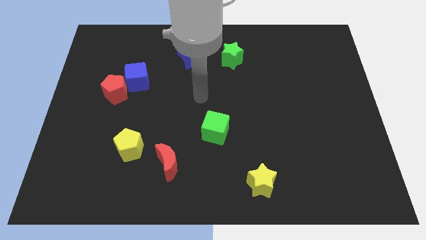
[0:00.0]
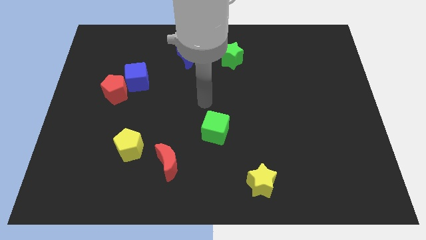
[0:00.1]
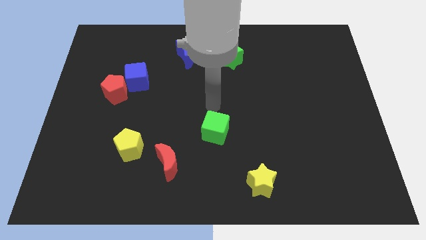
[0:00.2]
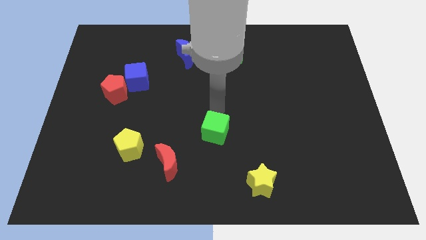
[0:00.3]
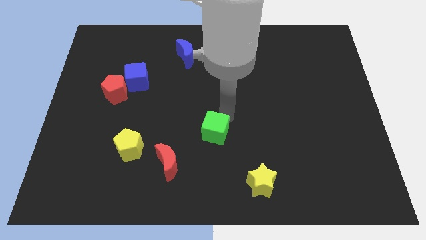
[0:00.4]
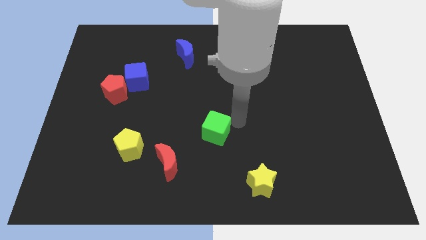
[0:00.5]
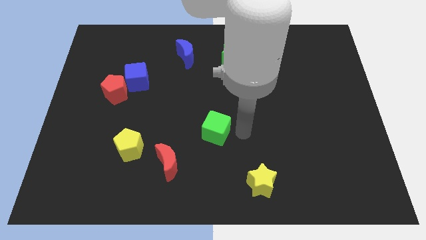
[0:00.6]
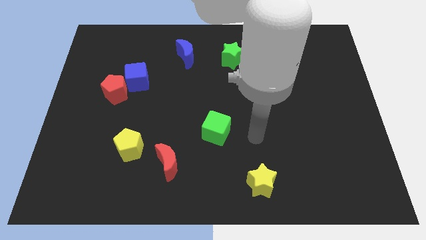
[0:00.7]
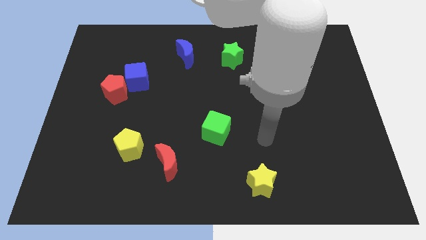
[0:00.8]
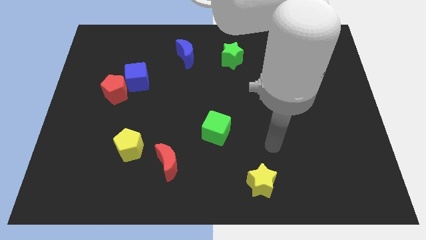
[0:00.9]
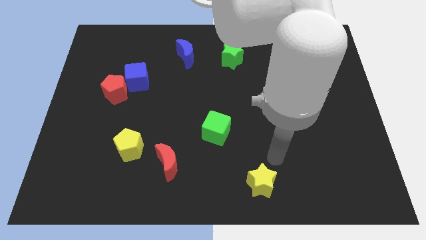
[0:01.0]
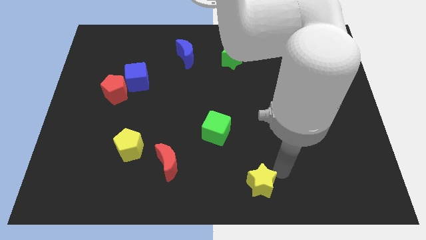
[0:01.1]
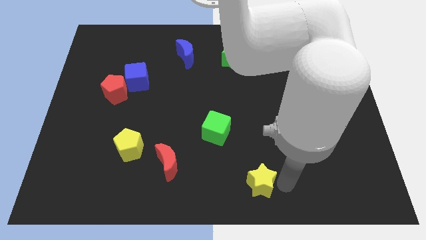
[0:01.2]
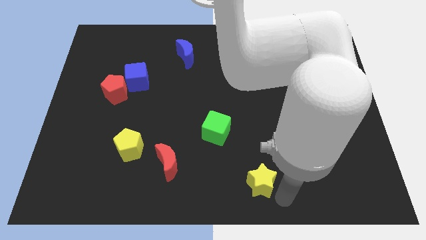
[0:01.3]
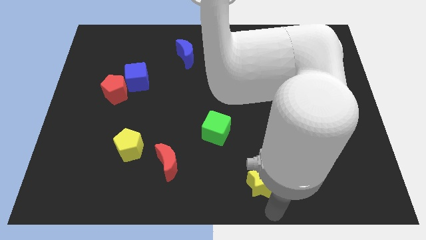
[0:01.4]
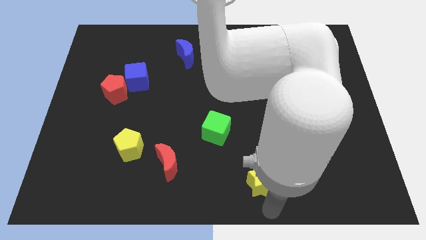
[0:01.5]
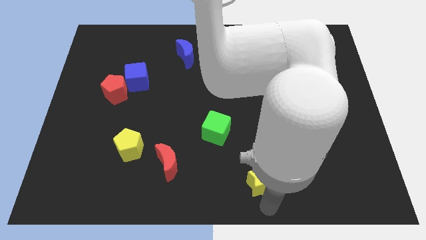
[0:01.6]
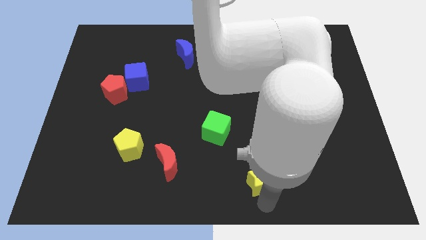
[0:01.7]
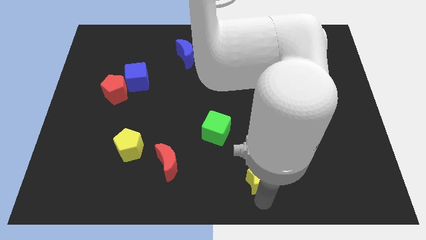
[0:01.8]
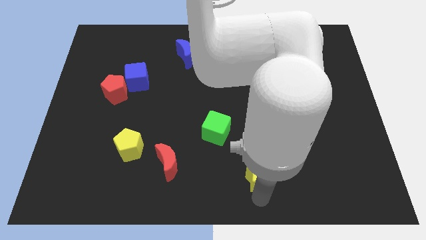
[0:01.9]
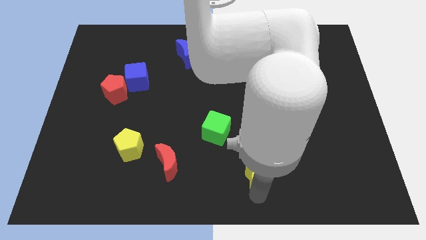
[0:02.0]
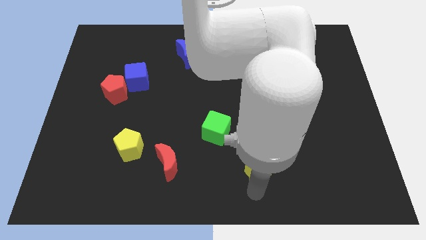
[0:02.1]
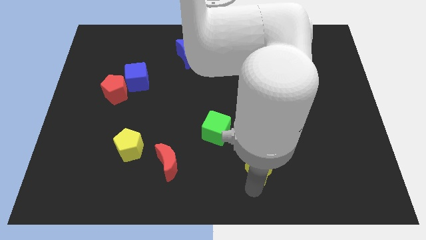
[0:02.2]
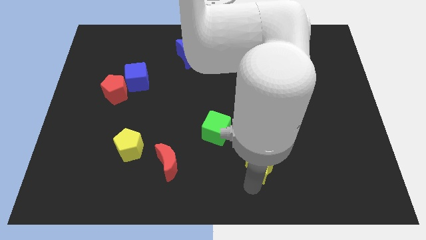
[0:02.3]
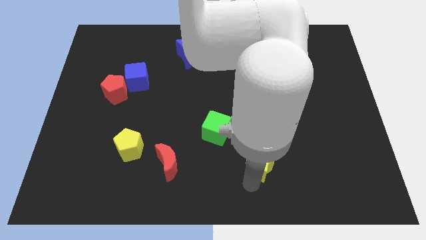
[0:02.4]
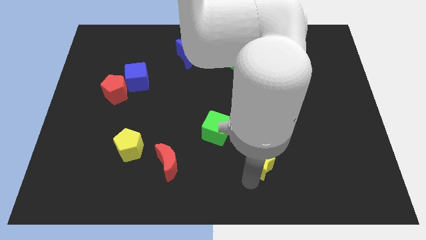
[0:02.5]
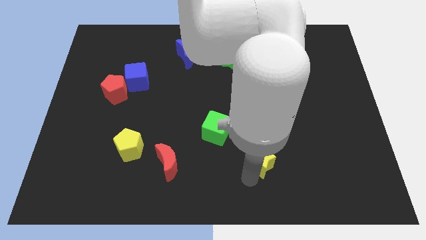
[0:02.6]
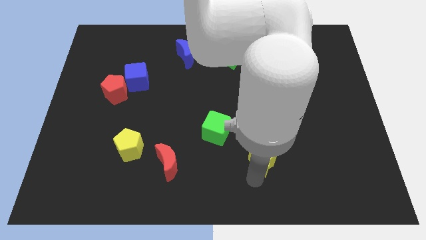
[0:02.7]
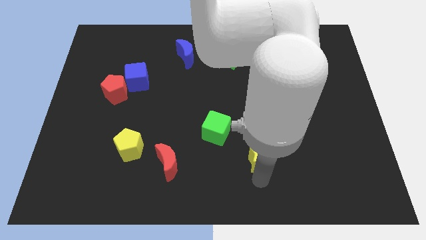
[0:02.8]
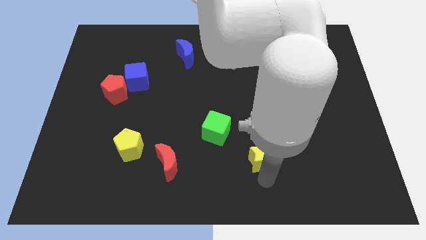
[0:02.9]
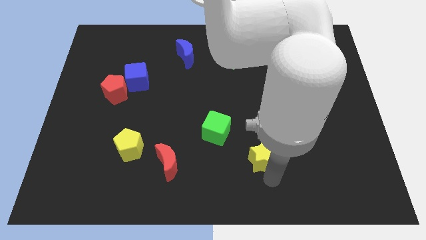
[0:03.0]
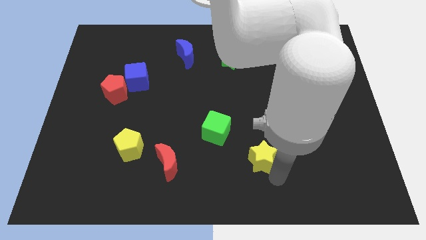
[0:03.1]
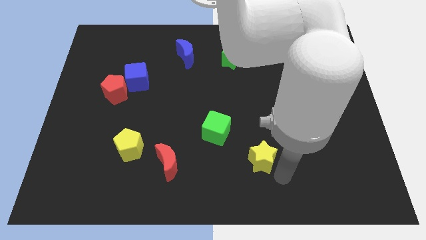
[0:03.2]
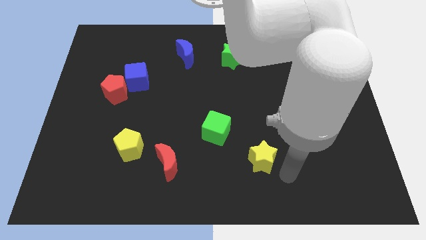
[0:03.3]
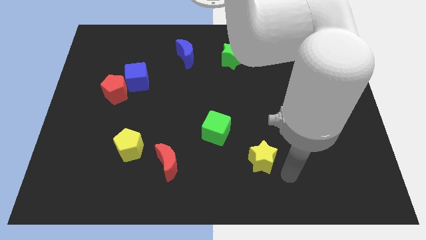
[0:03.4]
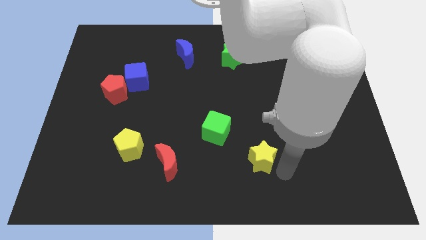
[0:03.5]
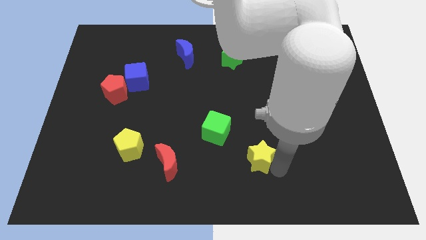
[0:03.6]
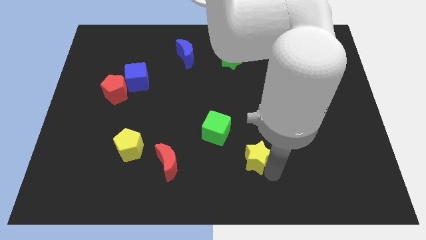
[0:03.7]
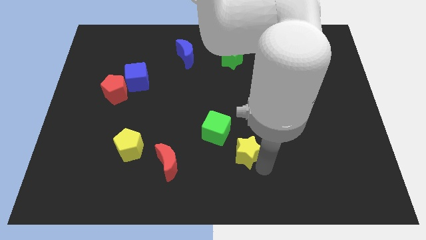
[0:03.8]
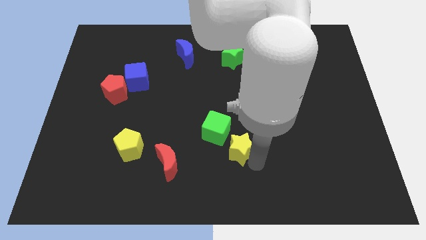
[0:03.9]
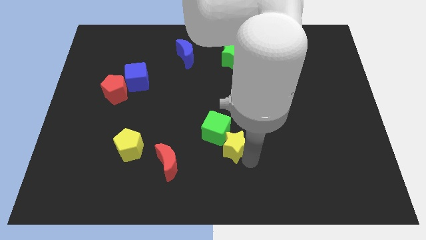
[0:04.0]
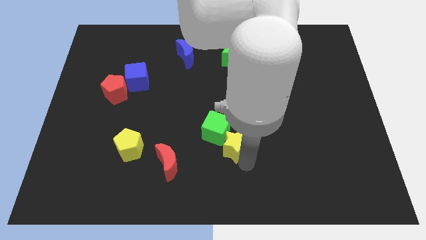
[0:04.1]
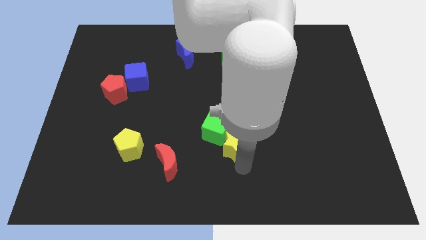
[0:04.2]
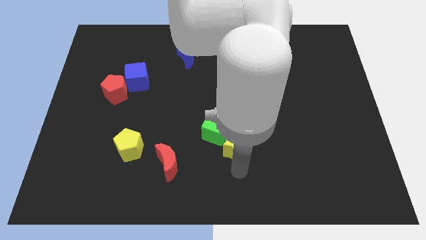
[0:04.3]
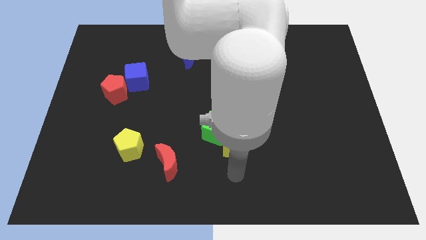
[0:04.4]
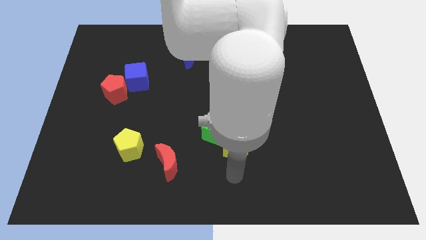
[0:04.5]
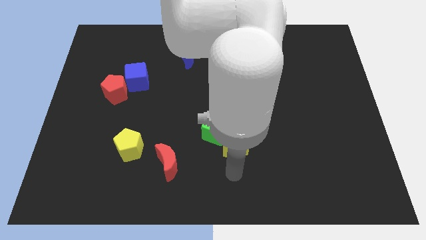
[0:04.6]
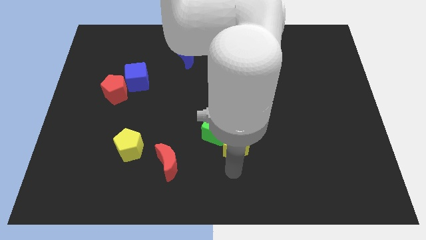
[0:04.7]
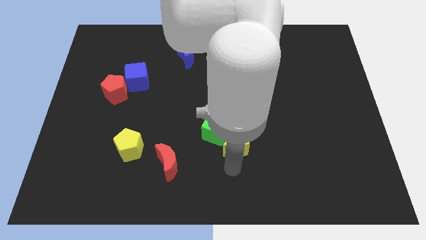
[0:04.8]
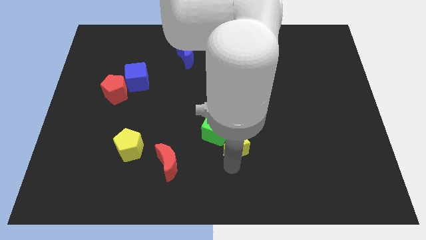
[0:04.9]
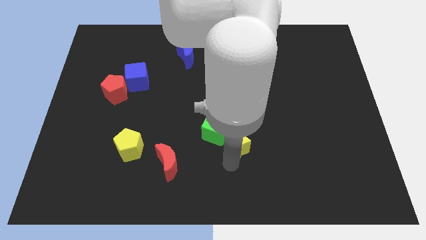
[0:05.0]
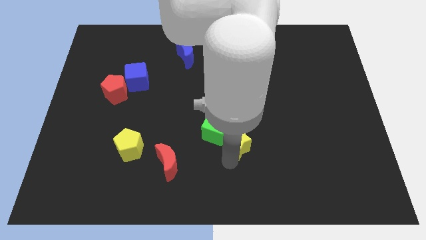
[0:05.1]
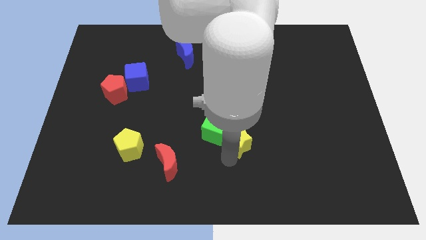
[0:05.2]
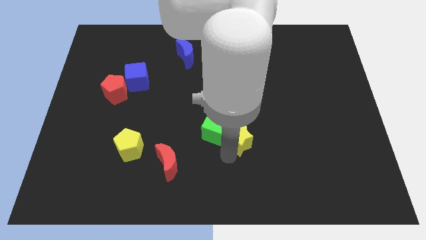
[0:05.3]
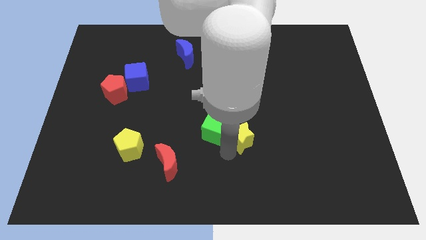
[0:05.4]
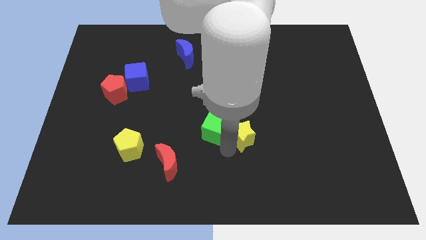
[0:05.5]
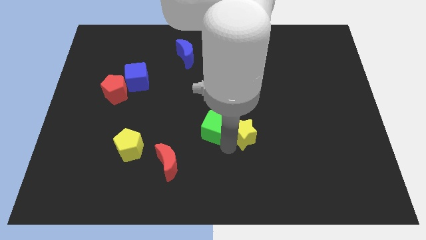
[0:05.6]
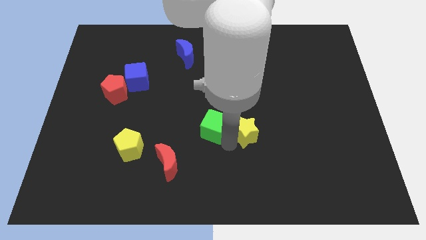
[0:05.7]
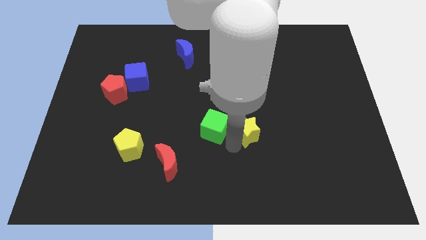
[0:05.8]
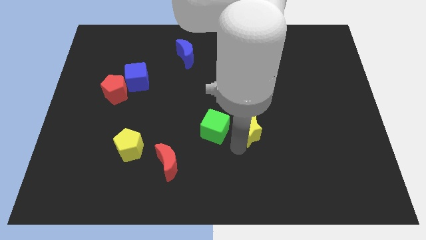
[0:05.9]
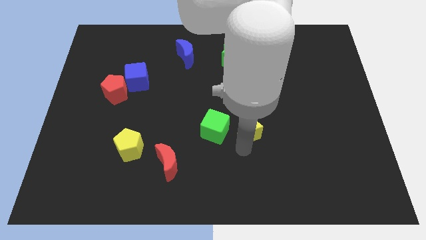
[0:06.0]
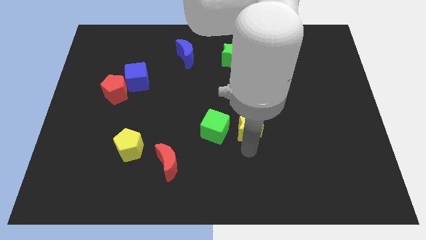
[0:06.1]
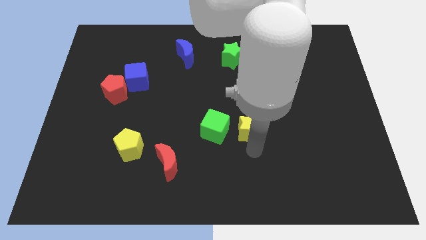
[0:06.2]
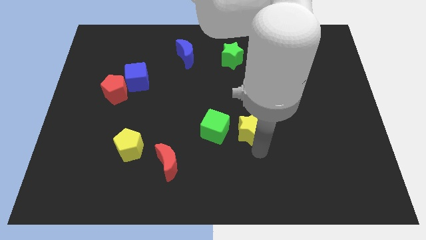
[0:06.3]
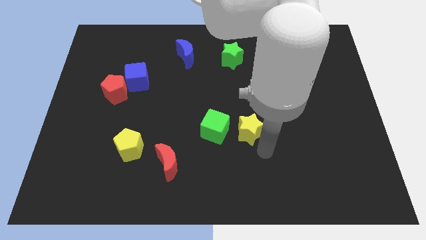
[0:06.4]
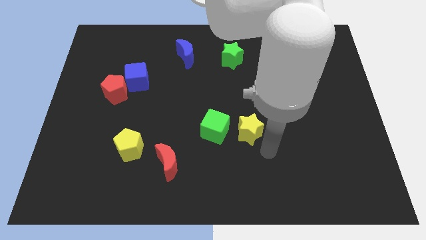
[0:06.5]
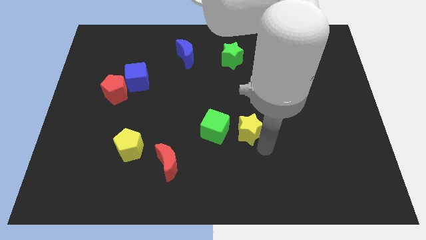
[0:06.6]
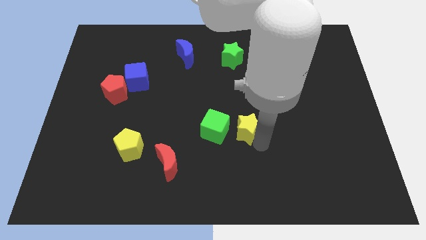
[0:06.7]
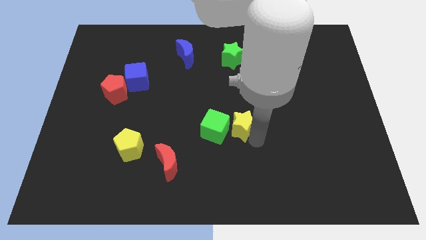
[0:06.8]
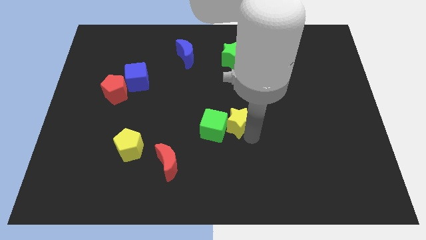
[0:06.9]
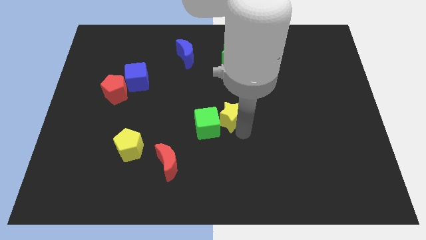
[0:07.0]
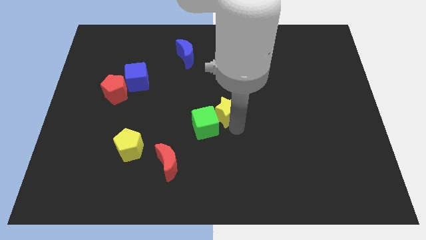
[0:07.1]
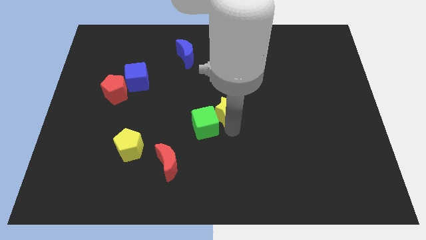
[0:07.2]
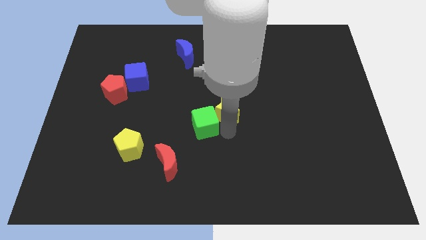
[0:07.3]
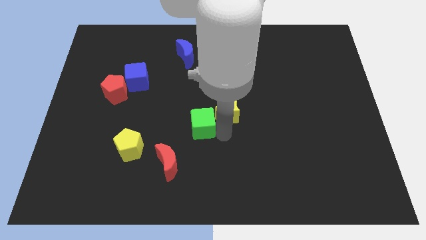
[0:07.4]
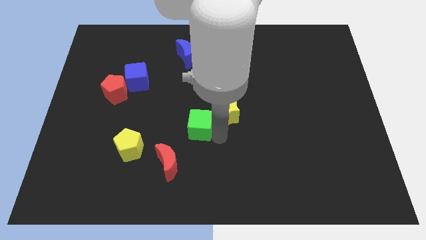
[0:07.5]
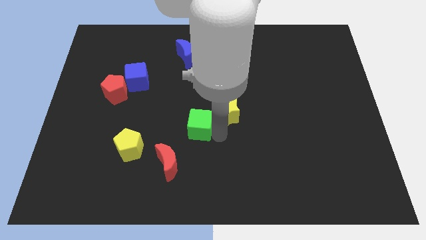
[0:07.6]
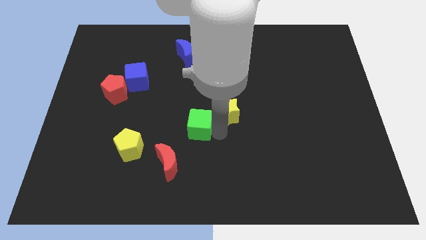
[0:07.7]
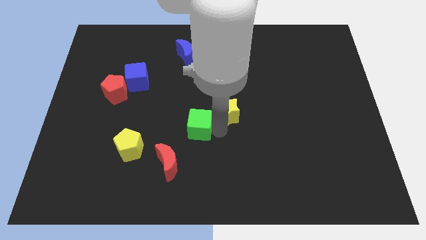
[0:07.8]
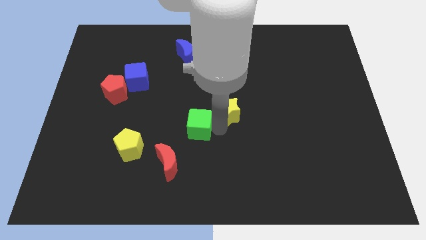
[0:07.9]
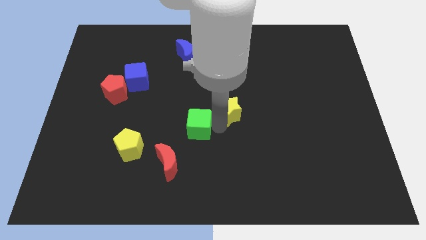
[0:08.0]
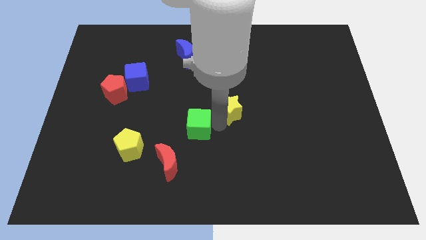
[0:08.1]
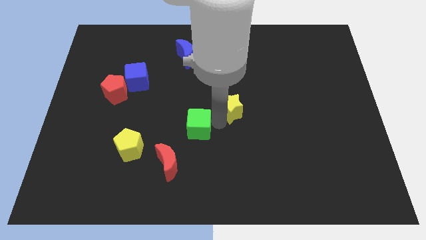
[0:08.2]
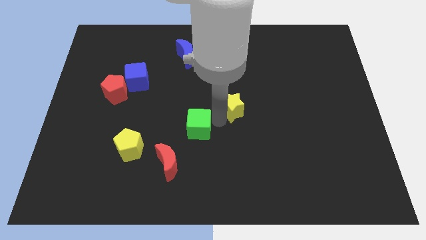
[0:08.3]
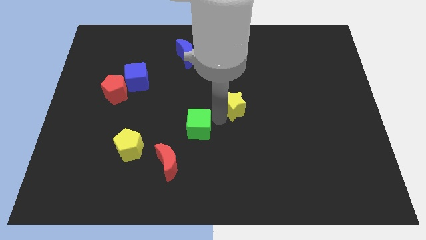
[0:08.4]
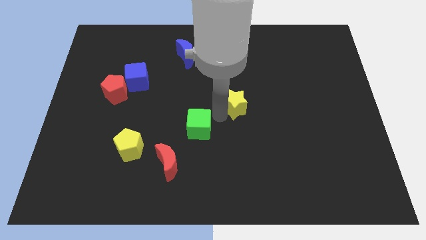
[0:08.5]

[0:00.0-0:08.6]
push the yellow star to the bottom side of the green star
